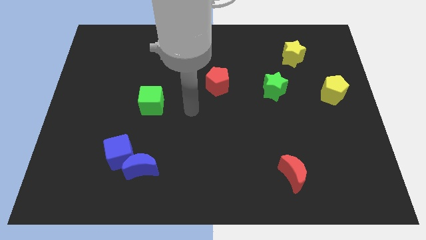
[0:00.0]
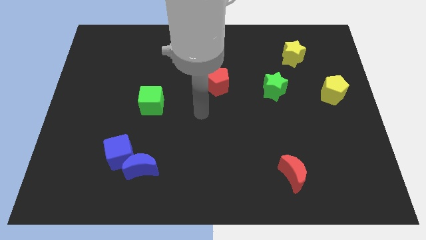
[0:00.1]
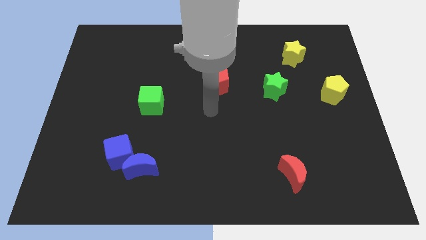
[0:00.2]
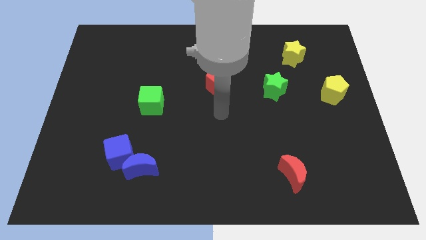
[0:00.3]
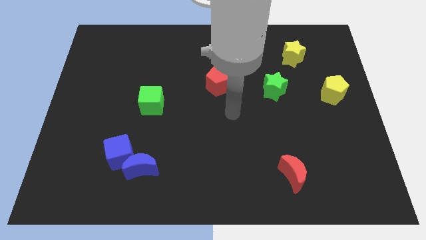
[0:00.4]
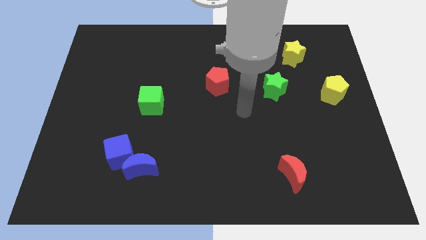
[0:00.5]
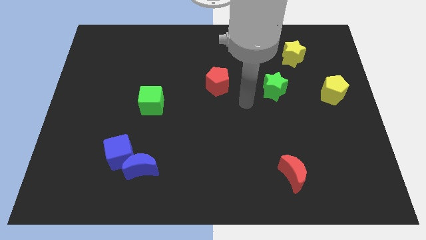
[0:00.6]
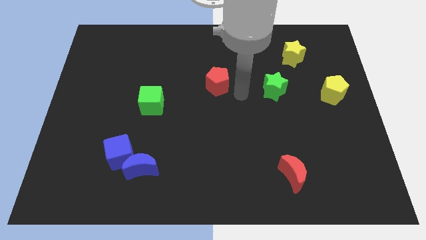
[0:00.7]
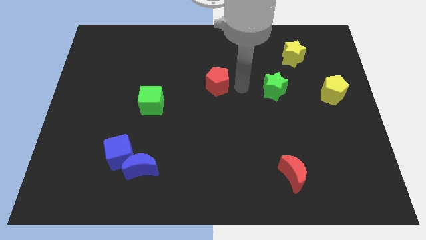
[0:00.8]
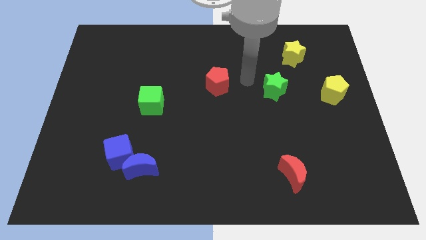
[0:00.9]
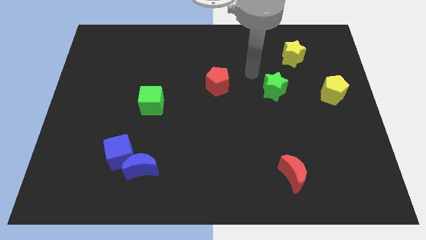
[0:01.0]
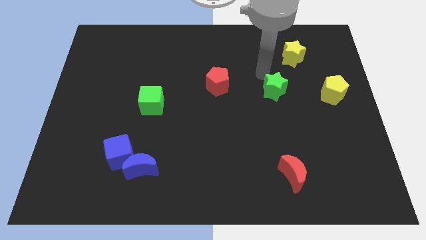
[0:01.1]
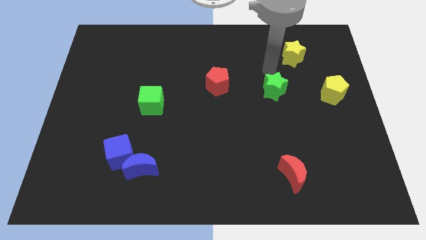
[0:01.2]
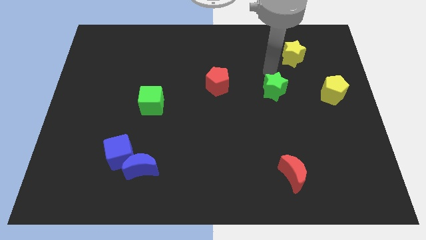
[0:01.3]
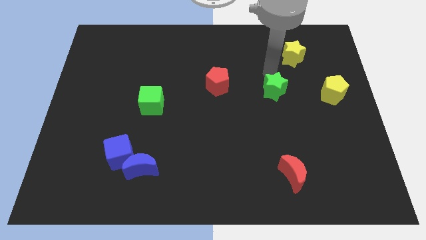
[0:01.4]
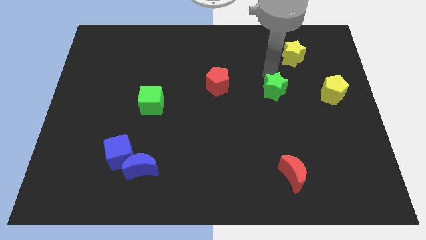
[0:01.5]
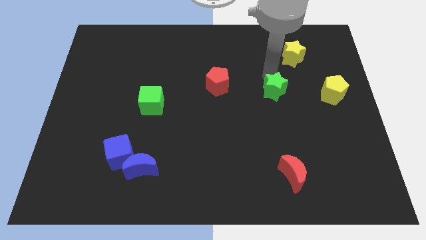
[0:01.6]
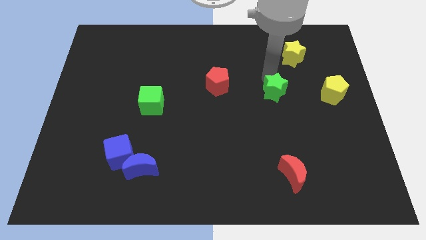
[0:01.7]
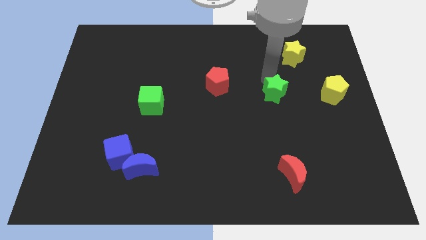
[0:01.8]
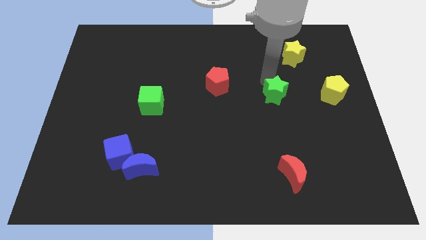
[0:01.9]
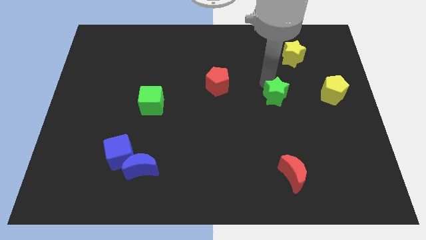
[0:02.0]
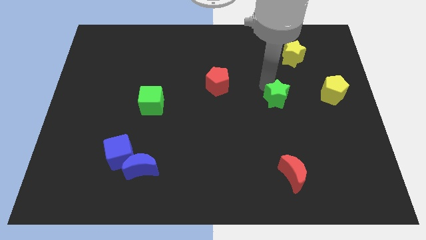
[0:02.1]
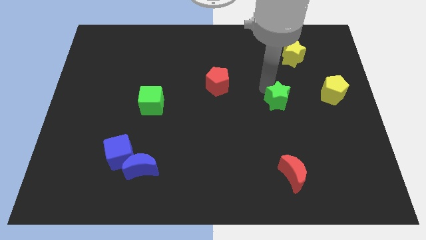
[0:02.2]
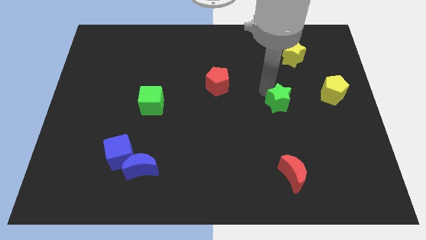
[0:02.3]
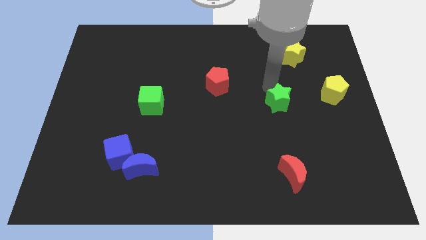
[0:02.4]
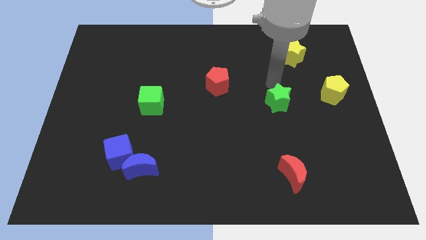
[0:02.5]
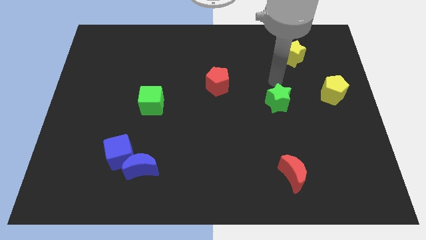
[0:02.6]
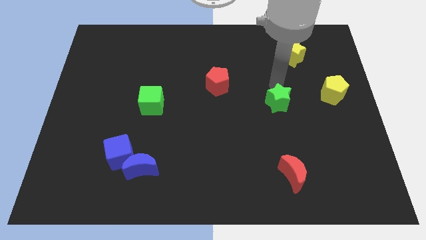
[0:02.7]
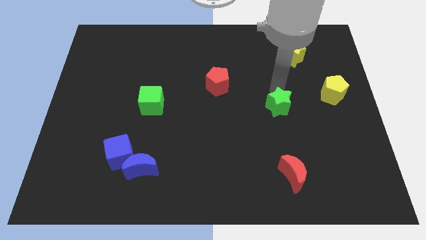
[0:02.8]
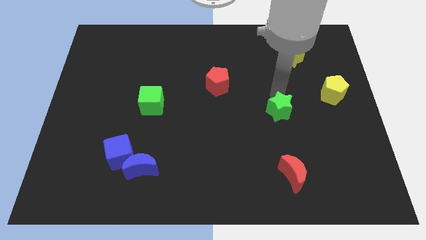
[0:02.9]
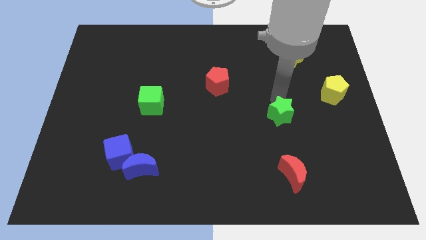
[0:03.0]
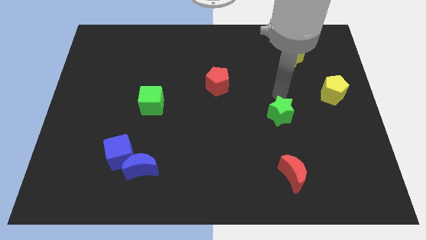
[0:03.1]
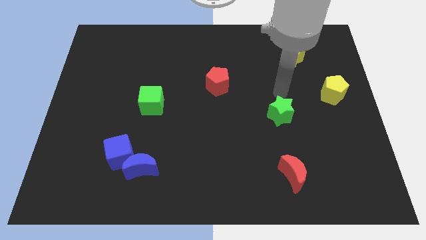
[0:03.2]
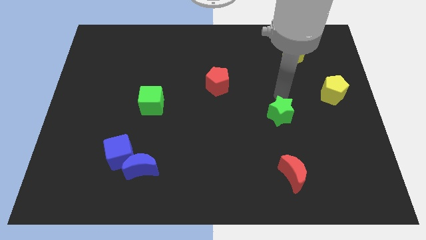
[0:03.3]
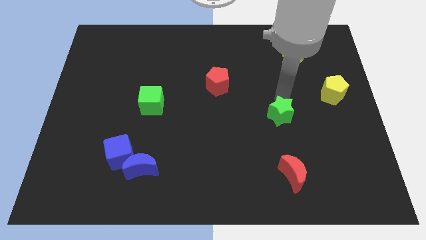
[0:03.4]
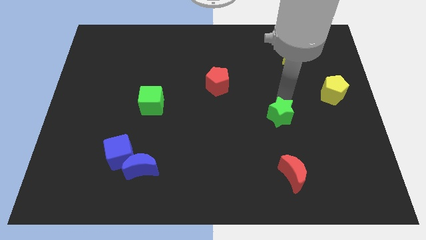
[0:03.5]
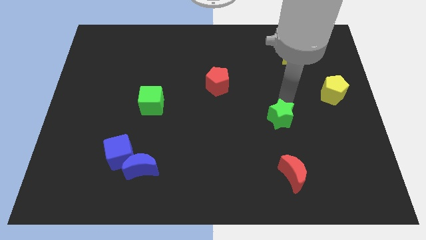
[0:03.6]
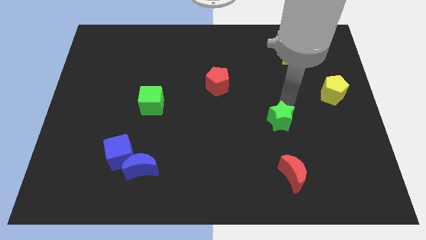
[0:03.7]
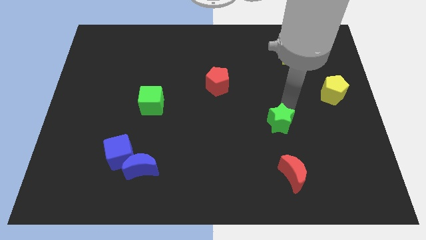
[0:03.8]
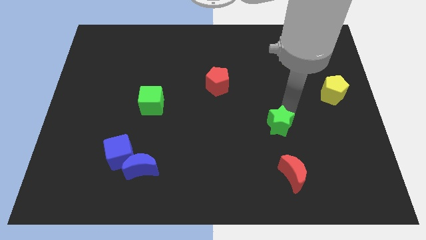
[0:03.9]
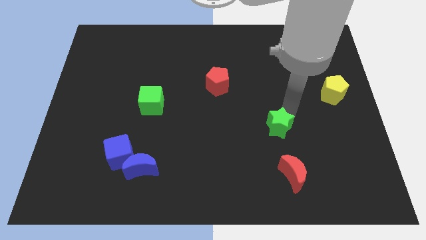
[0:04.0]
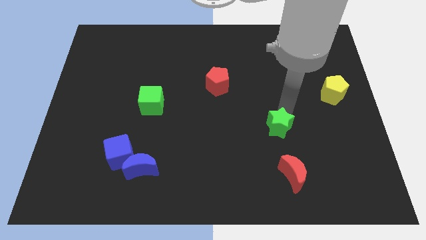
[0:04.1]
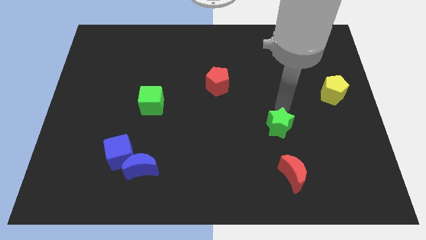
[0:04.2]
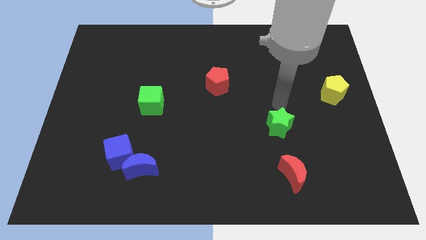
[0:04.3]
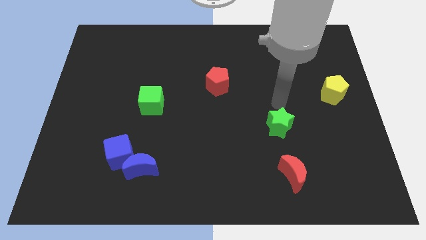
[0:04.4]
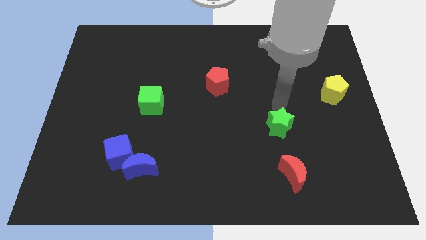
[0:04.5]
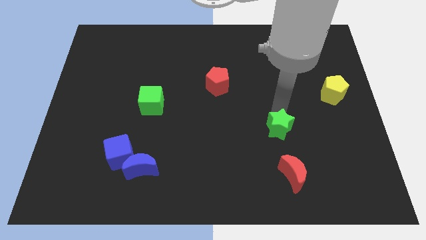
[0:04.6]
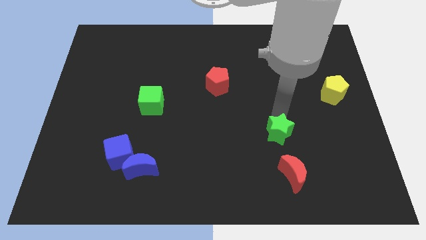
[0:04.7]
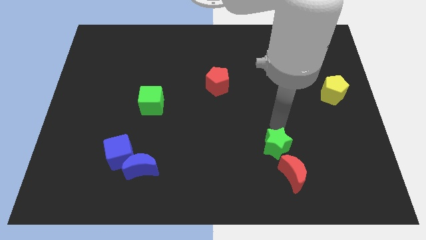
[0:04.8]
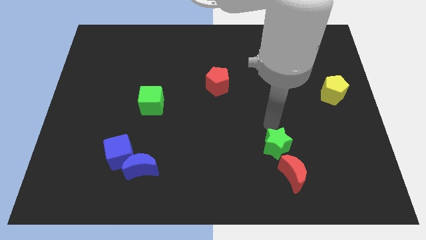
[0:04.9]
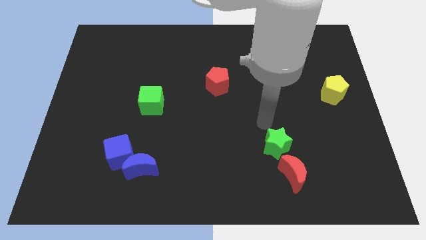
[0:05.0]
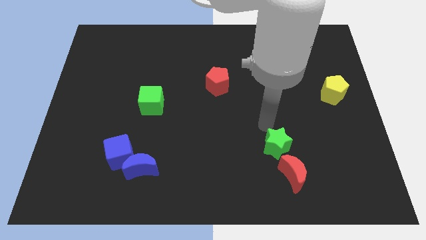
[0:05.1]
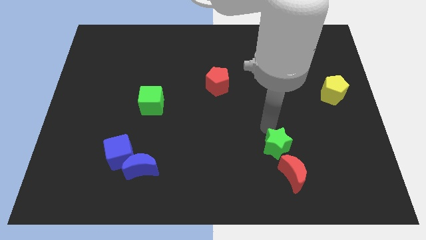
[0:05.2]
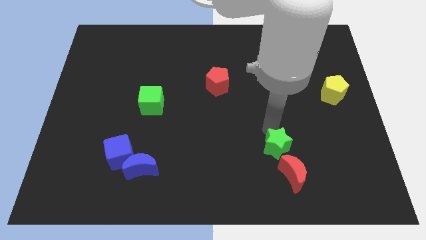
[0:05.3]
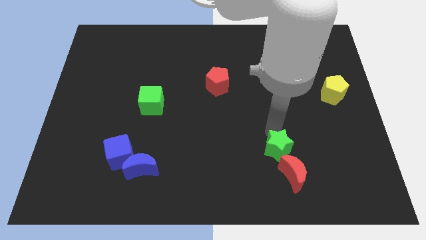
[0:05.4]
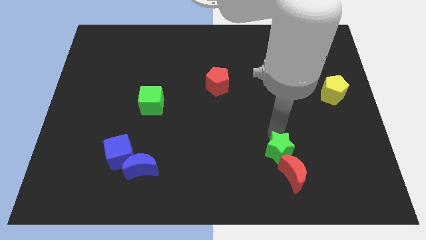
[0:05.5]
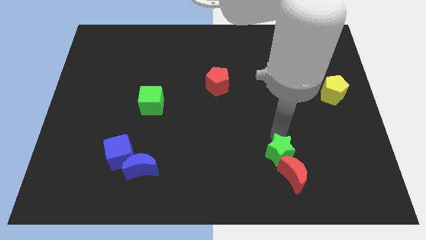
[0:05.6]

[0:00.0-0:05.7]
slide the green star to the red moon

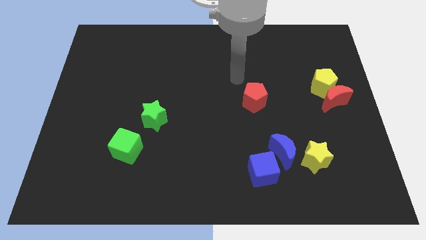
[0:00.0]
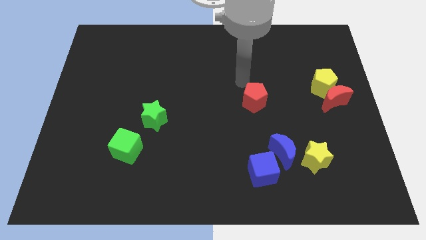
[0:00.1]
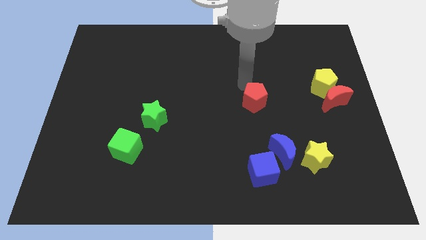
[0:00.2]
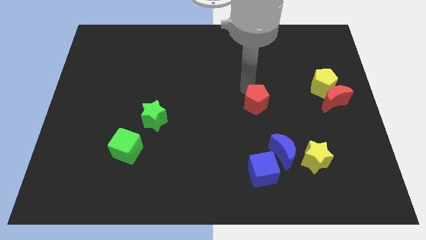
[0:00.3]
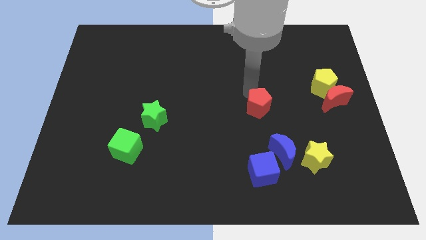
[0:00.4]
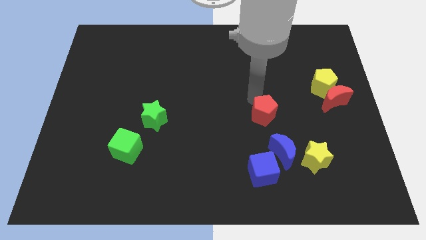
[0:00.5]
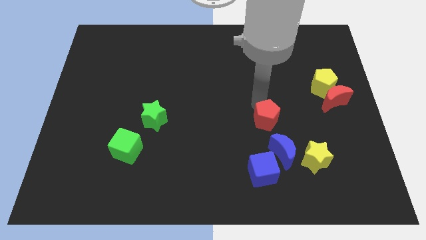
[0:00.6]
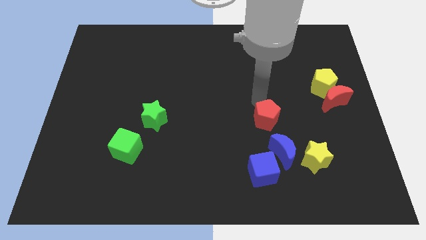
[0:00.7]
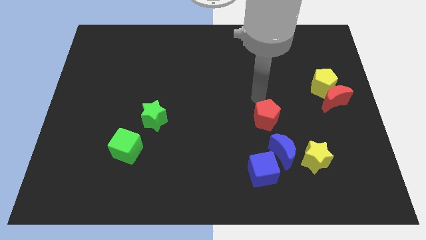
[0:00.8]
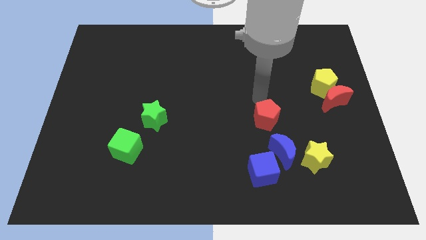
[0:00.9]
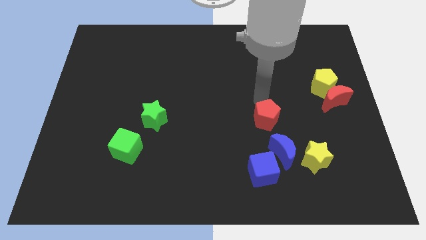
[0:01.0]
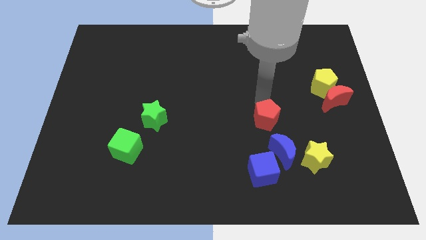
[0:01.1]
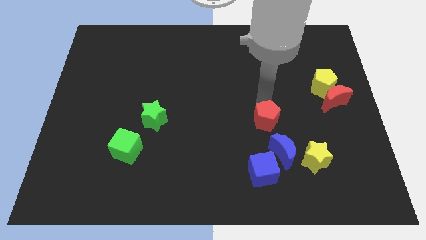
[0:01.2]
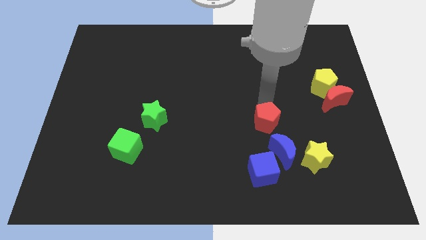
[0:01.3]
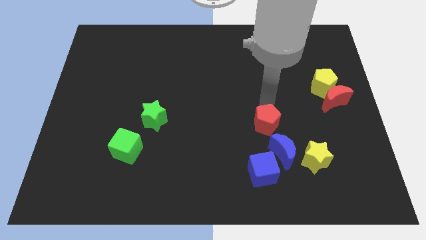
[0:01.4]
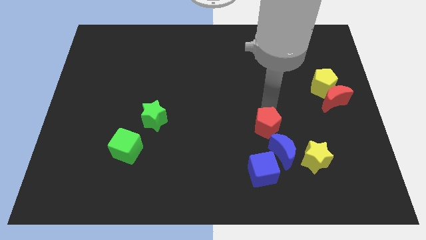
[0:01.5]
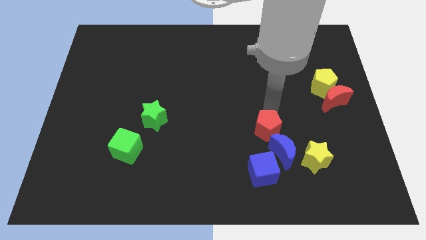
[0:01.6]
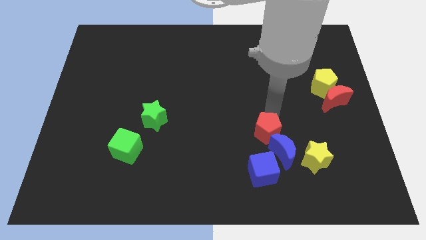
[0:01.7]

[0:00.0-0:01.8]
slide the red pentagon close to the blue moon
